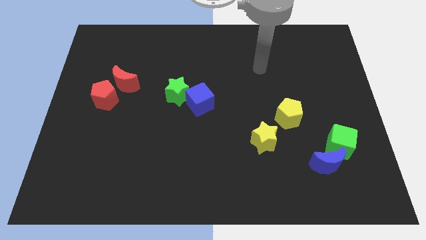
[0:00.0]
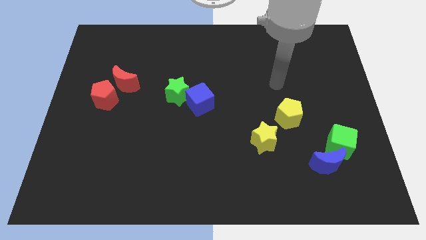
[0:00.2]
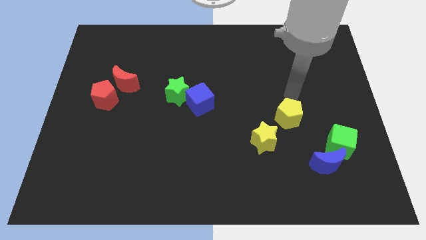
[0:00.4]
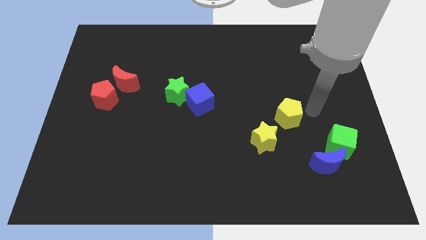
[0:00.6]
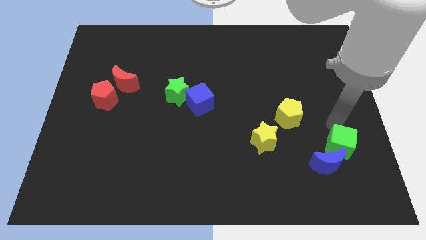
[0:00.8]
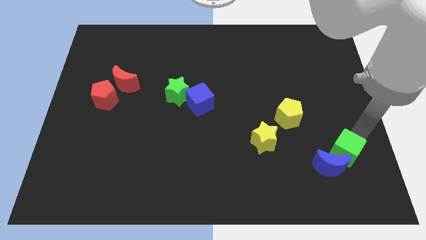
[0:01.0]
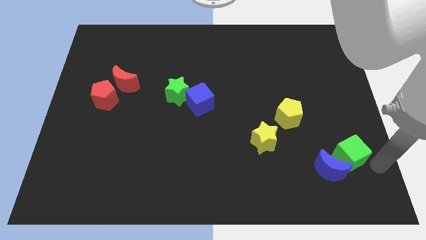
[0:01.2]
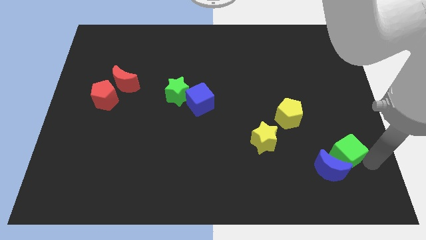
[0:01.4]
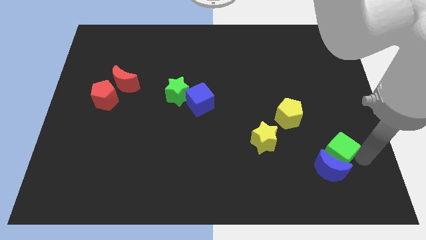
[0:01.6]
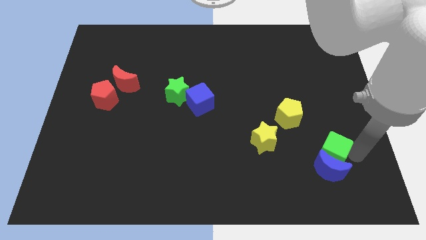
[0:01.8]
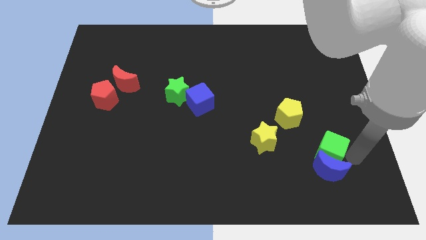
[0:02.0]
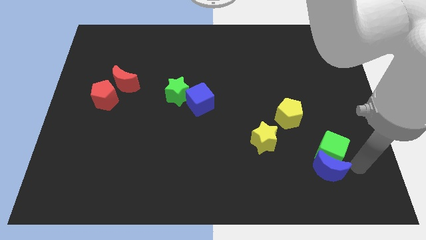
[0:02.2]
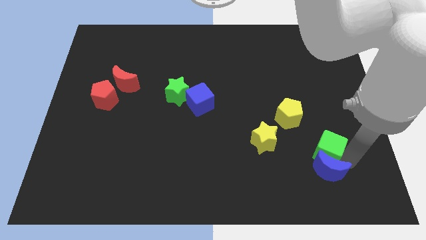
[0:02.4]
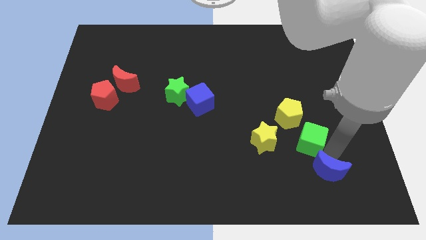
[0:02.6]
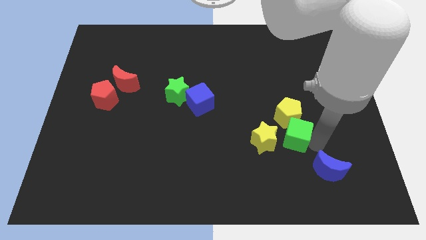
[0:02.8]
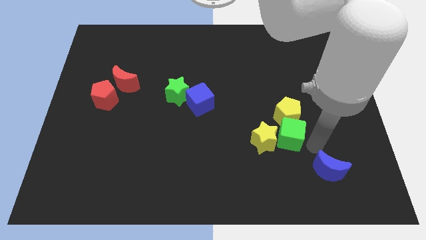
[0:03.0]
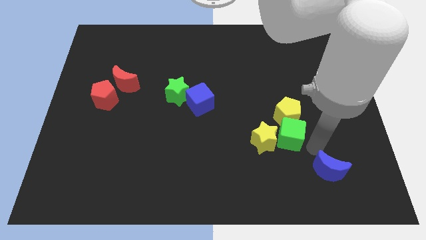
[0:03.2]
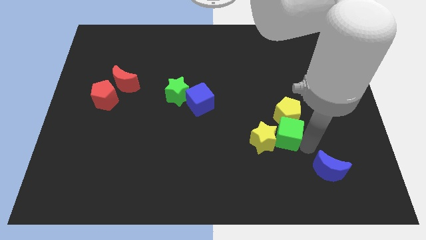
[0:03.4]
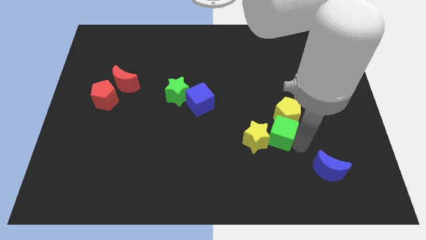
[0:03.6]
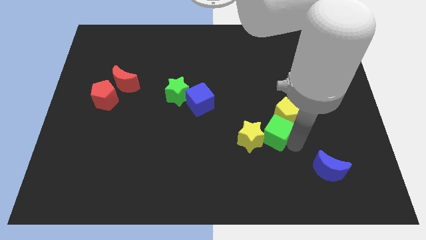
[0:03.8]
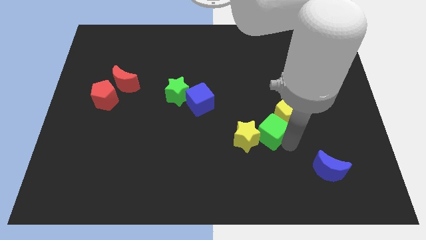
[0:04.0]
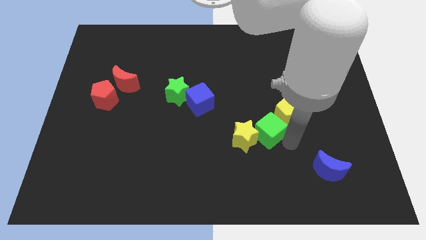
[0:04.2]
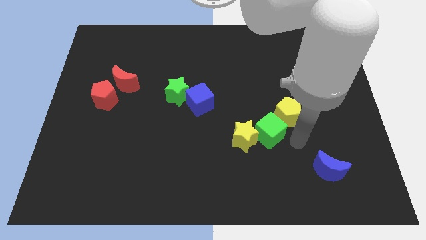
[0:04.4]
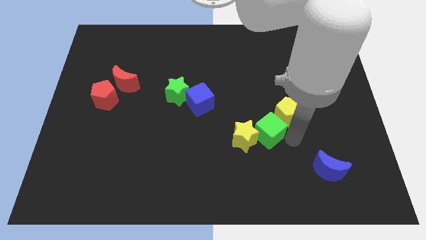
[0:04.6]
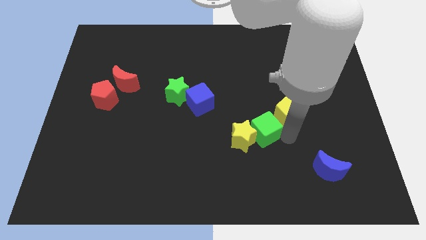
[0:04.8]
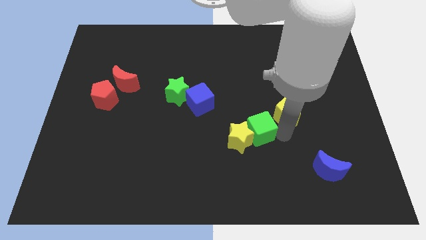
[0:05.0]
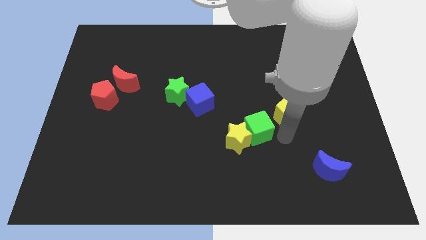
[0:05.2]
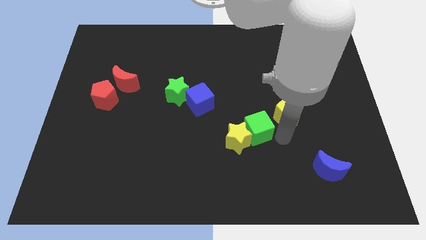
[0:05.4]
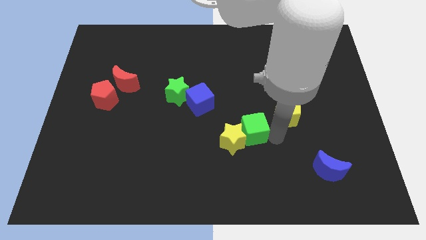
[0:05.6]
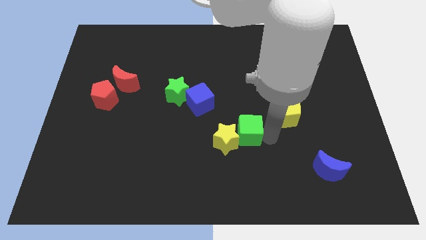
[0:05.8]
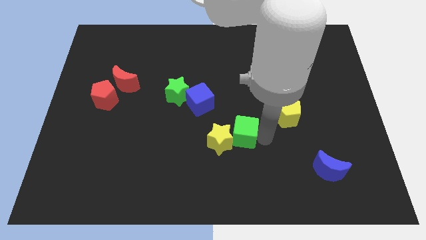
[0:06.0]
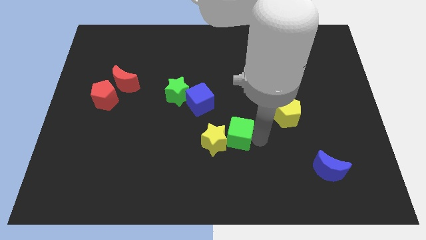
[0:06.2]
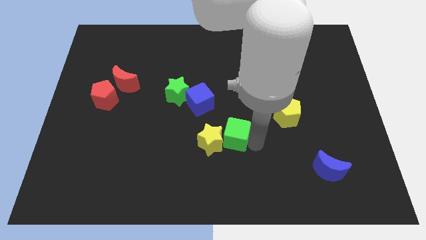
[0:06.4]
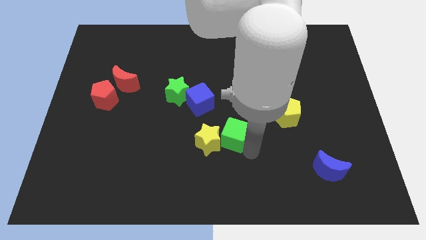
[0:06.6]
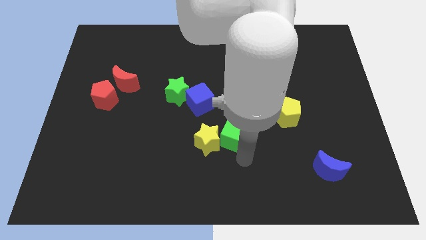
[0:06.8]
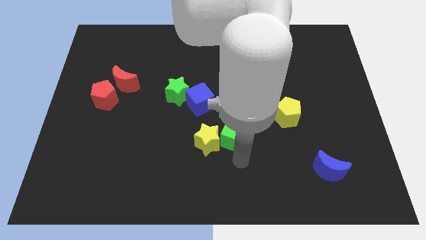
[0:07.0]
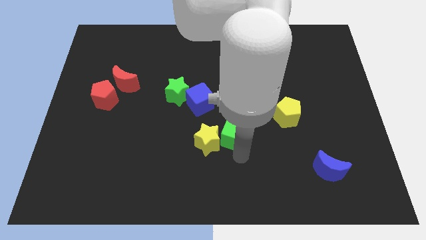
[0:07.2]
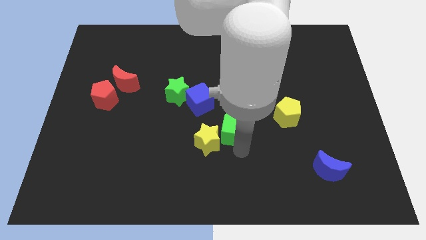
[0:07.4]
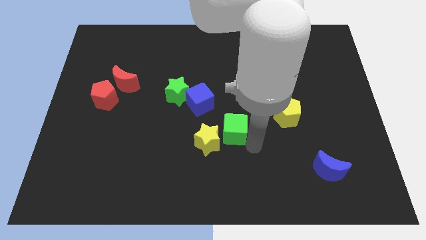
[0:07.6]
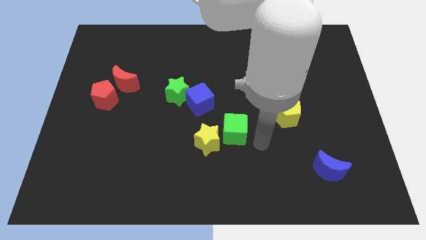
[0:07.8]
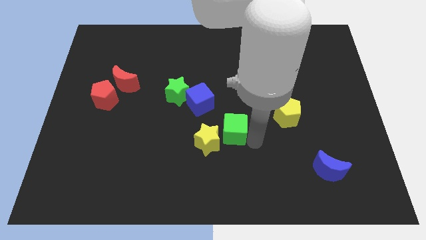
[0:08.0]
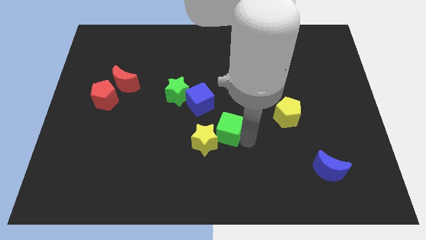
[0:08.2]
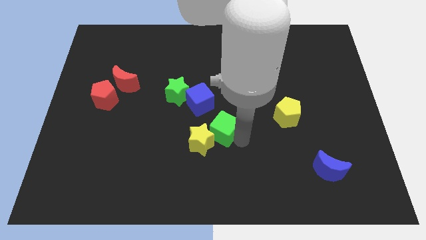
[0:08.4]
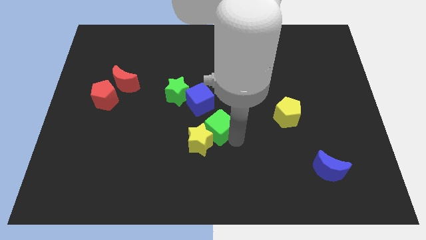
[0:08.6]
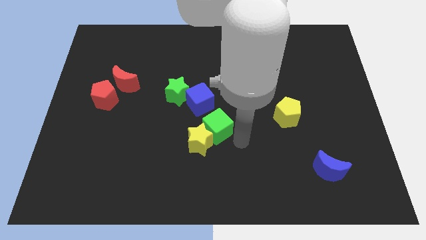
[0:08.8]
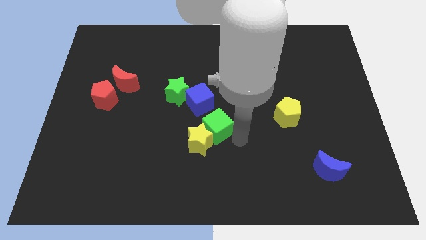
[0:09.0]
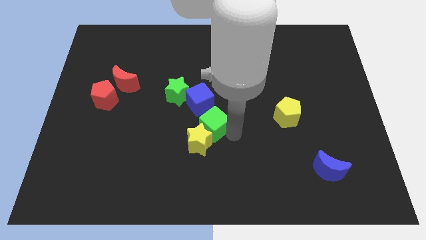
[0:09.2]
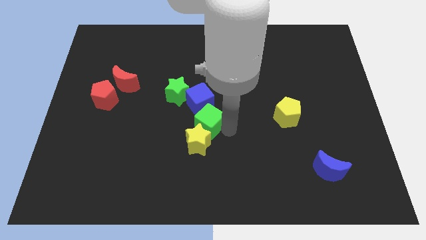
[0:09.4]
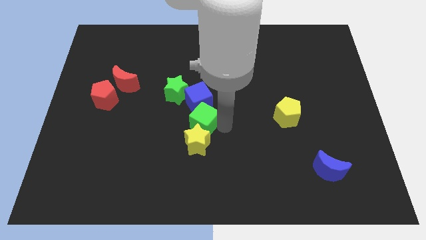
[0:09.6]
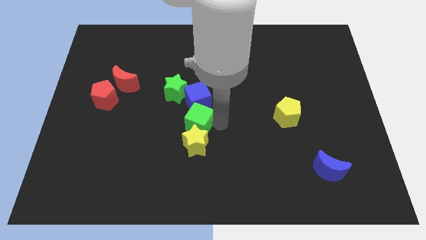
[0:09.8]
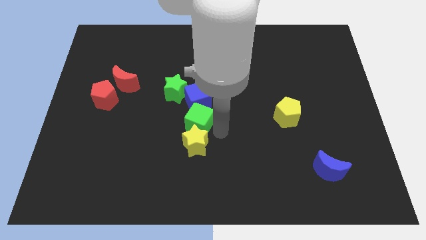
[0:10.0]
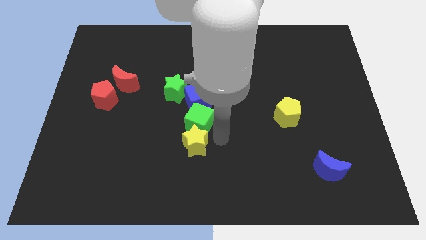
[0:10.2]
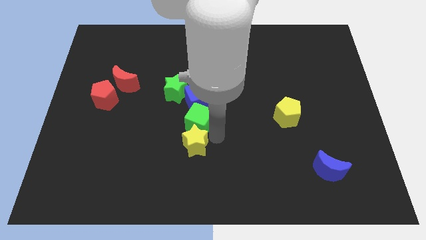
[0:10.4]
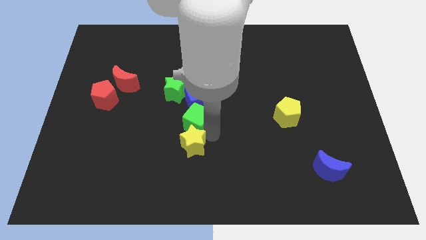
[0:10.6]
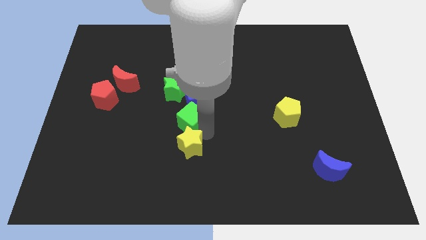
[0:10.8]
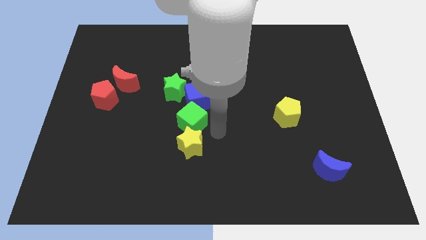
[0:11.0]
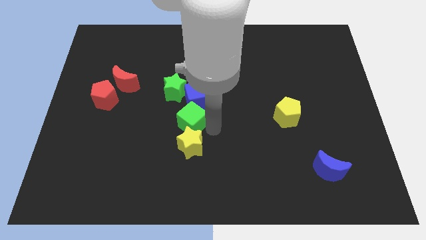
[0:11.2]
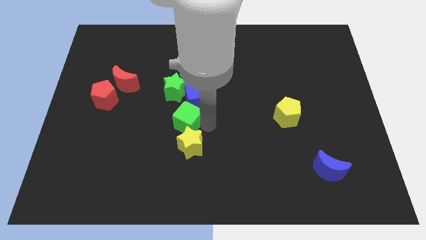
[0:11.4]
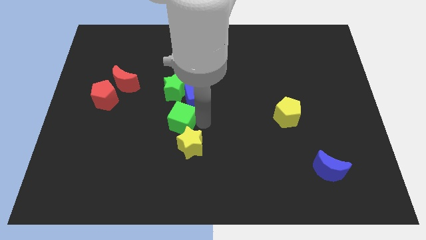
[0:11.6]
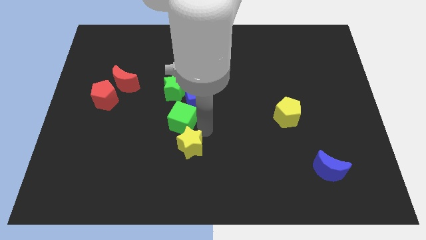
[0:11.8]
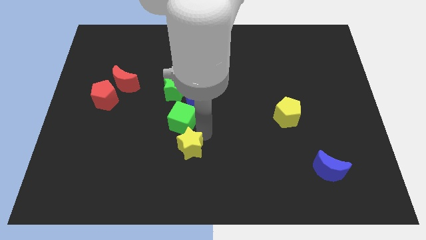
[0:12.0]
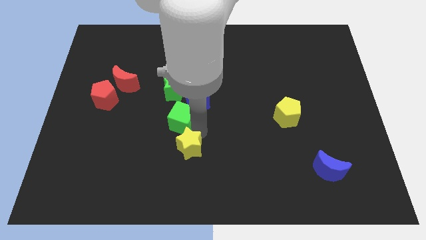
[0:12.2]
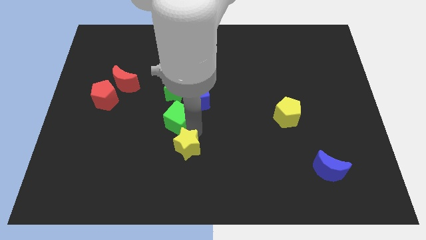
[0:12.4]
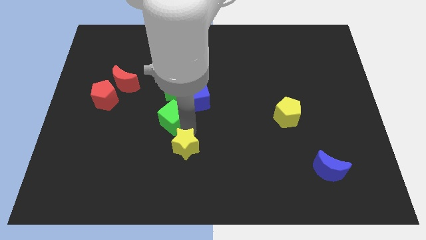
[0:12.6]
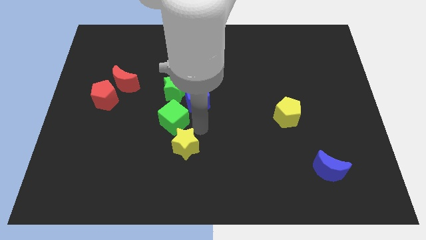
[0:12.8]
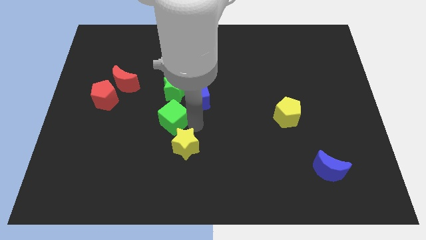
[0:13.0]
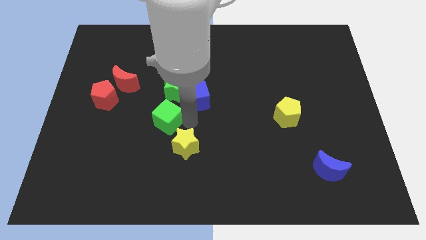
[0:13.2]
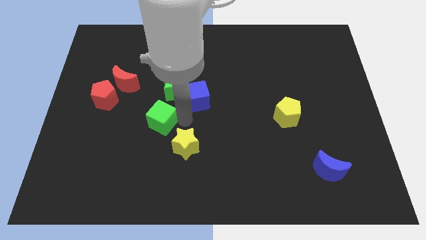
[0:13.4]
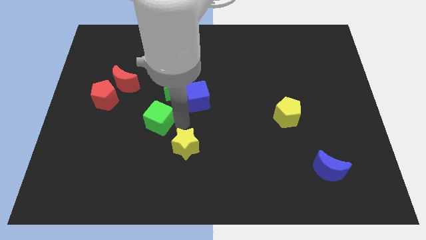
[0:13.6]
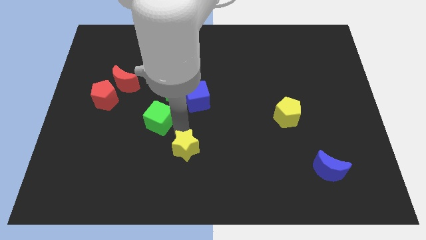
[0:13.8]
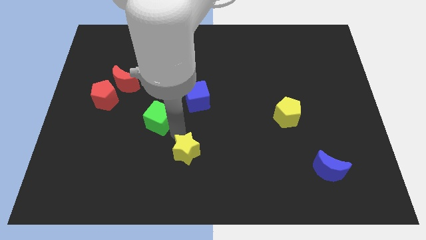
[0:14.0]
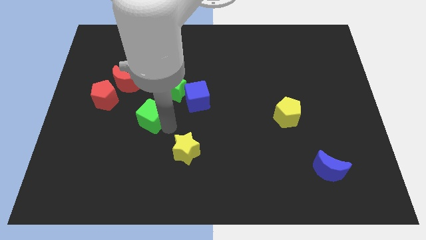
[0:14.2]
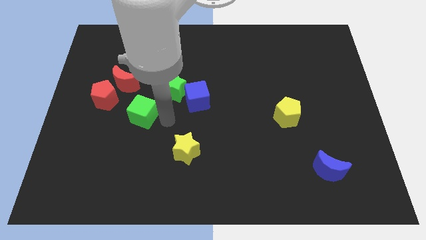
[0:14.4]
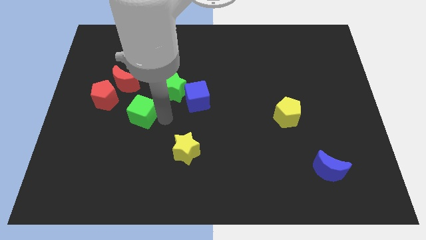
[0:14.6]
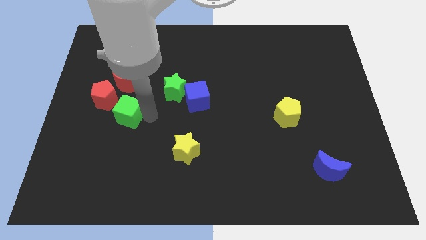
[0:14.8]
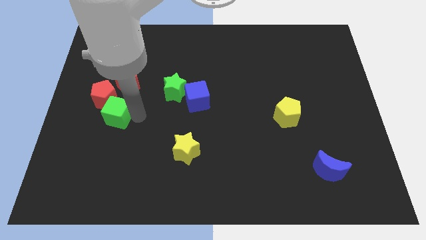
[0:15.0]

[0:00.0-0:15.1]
put the green cube next to the red pentagon
